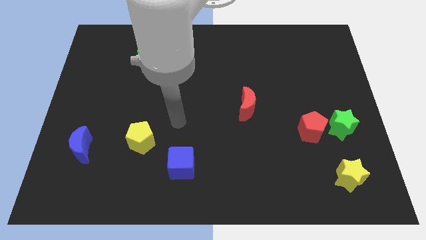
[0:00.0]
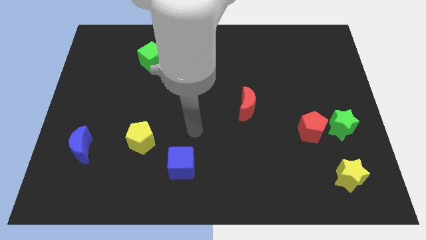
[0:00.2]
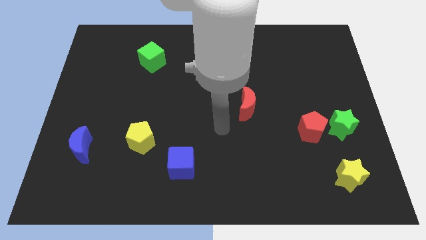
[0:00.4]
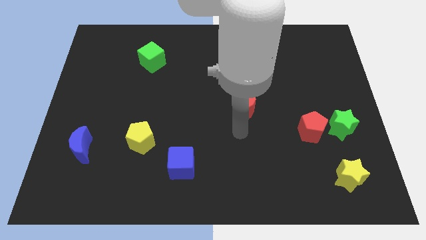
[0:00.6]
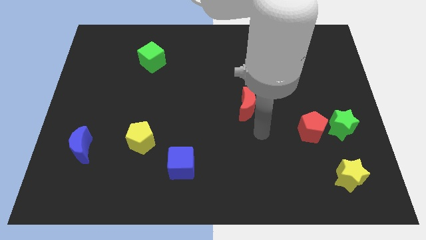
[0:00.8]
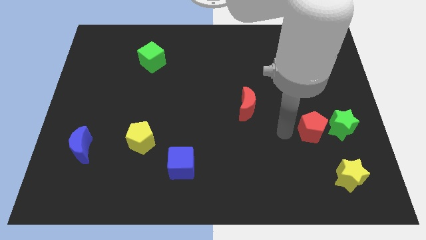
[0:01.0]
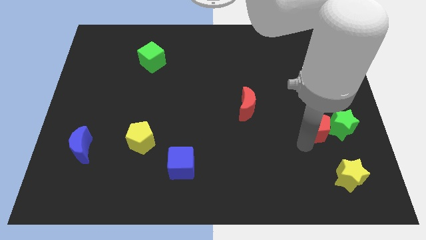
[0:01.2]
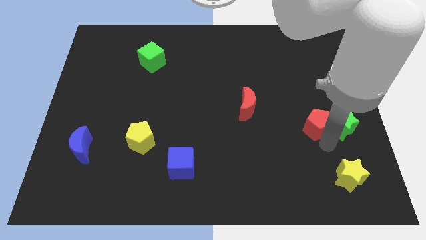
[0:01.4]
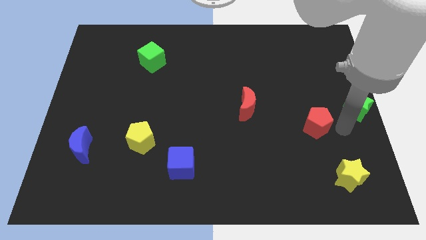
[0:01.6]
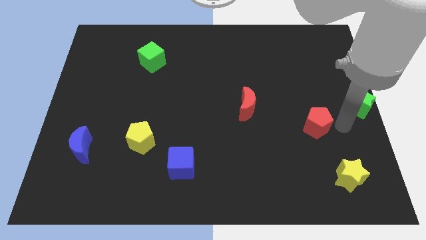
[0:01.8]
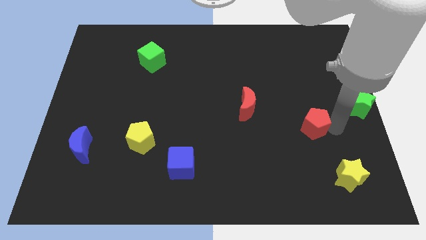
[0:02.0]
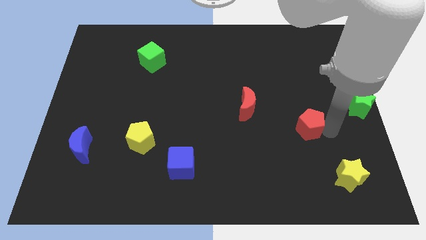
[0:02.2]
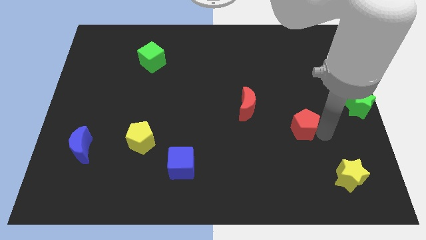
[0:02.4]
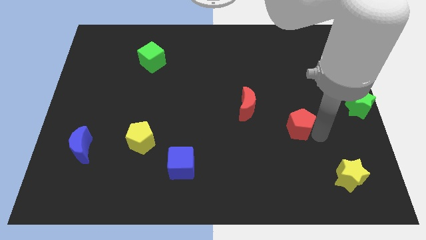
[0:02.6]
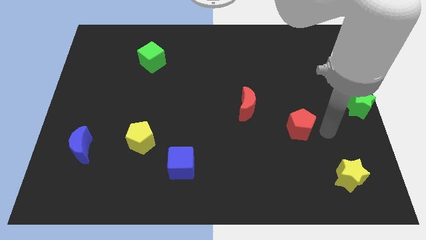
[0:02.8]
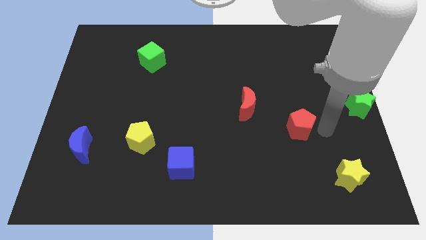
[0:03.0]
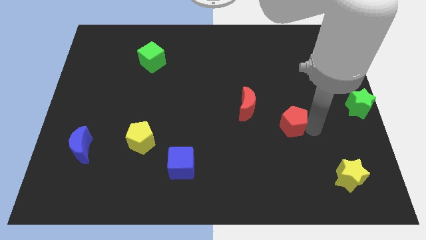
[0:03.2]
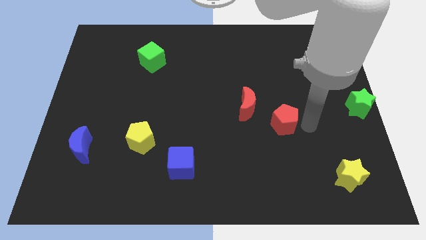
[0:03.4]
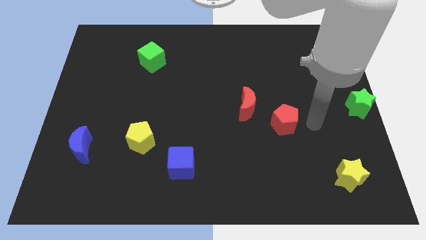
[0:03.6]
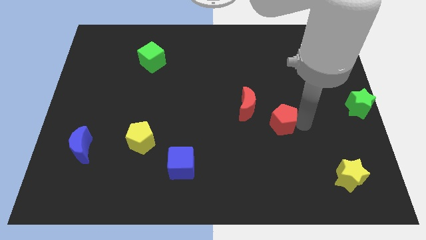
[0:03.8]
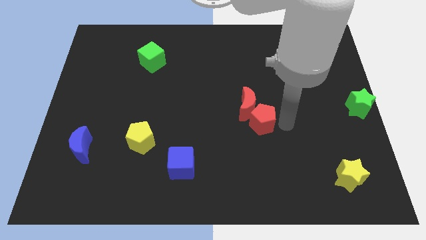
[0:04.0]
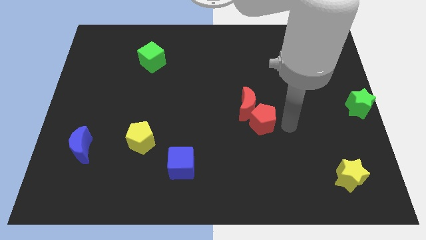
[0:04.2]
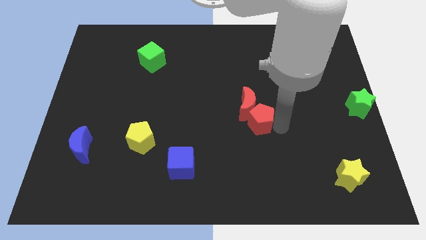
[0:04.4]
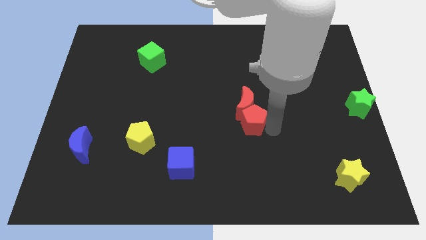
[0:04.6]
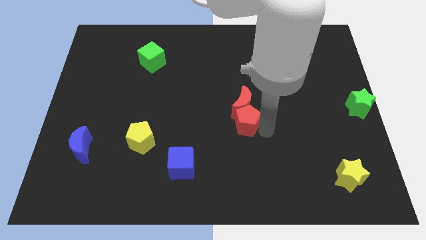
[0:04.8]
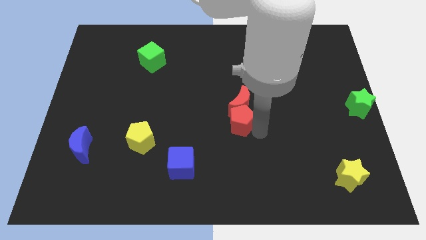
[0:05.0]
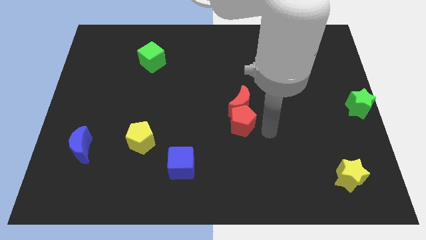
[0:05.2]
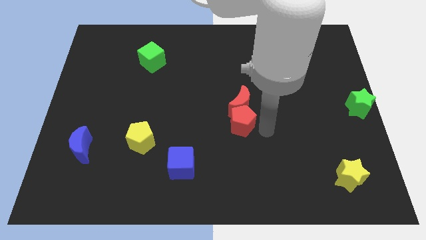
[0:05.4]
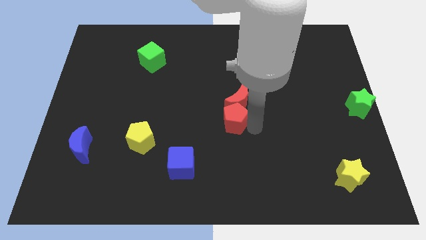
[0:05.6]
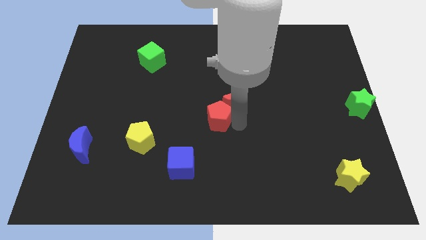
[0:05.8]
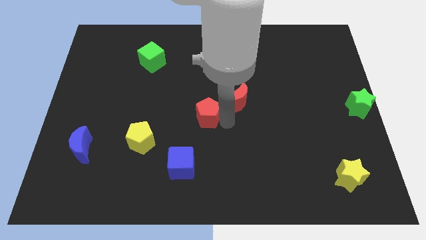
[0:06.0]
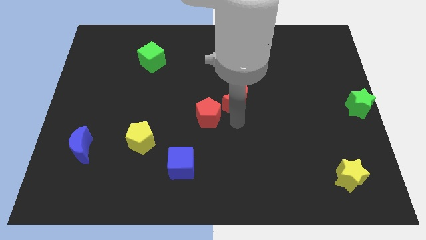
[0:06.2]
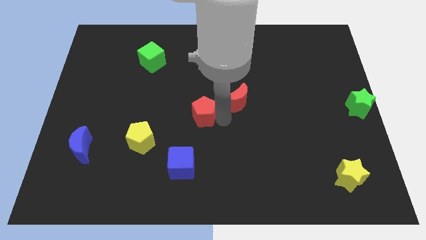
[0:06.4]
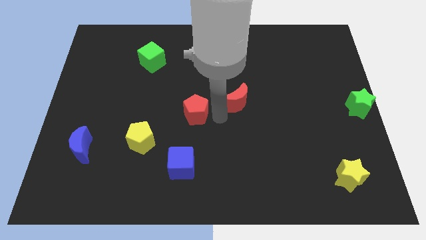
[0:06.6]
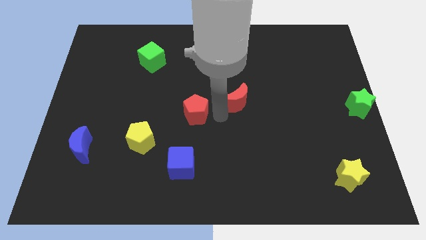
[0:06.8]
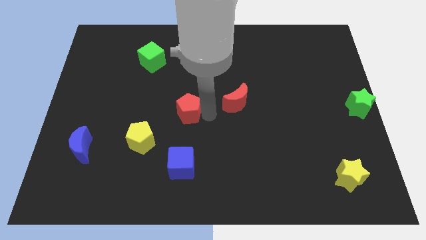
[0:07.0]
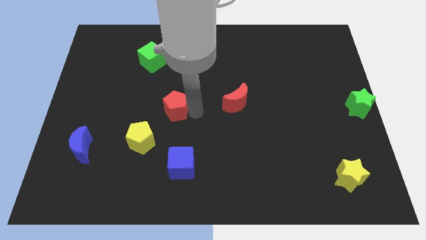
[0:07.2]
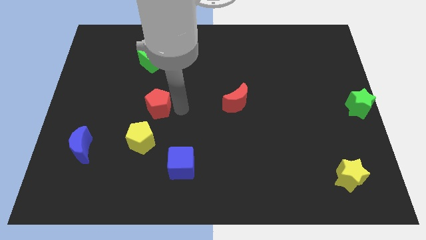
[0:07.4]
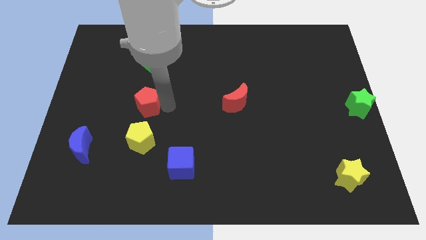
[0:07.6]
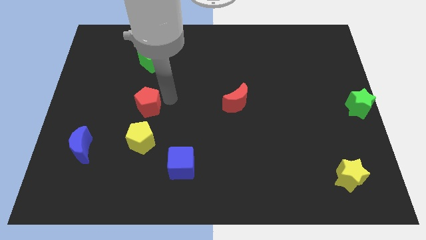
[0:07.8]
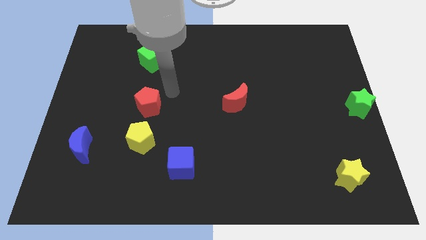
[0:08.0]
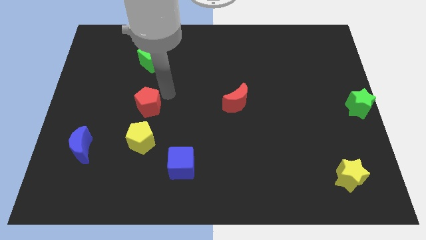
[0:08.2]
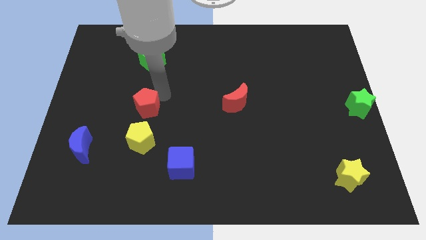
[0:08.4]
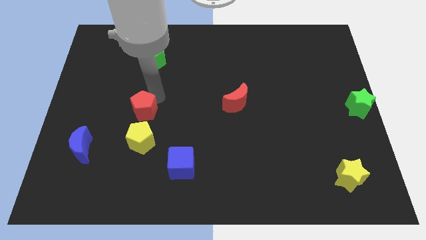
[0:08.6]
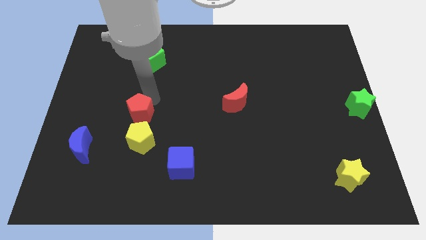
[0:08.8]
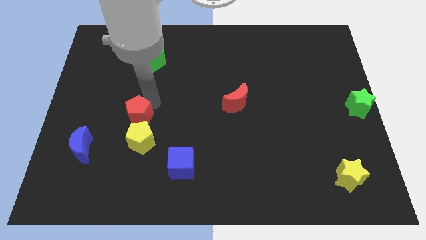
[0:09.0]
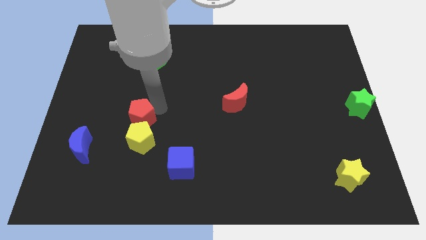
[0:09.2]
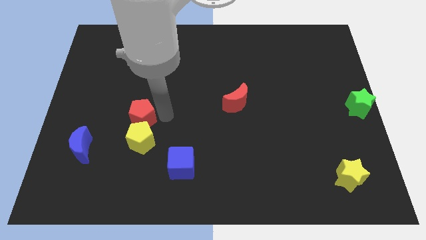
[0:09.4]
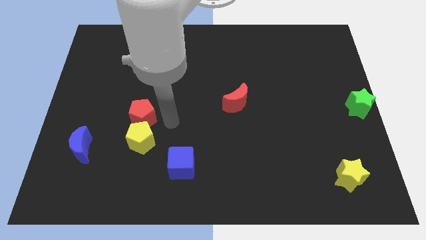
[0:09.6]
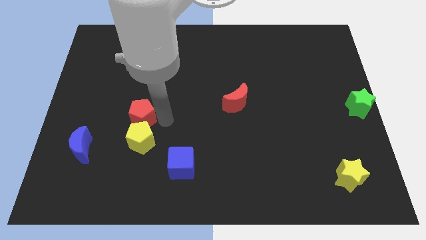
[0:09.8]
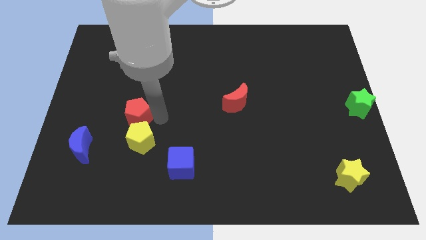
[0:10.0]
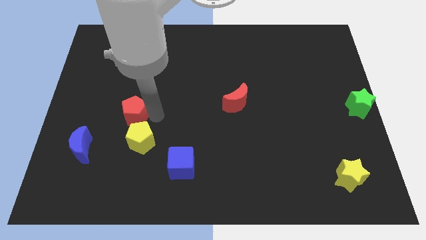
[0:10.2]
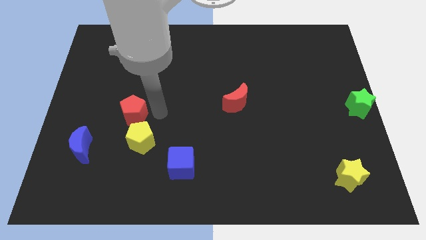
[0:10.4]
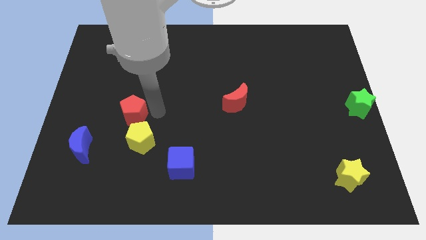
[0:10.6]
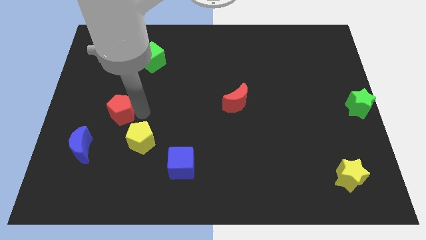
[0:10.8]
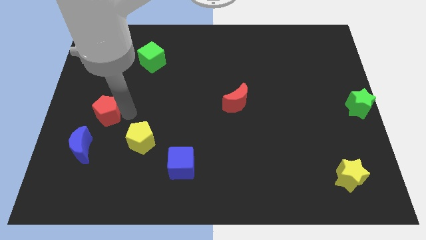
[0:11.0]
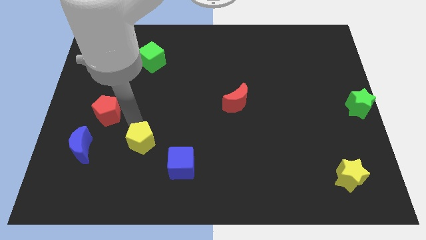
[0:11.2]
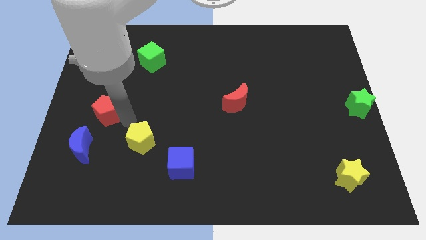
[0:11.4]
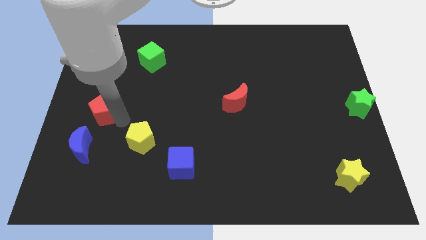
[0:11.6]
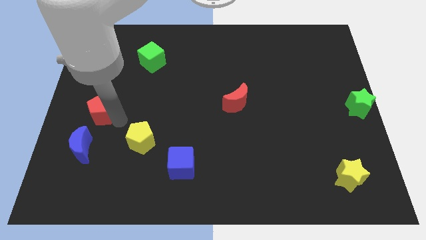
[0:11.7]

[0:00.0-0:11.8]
move the red pentagon to the left side
